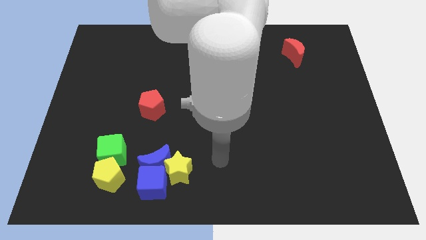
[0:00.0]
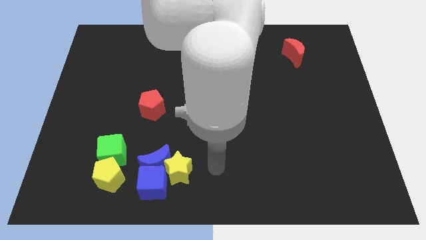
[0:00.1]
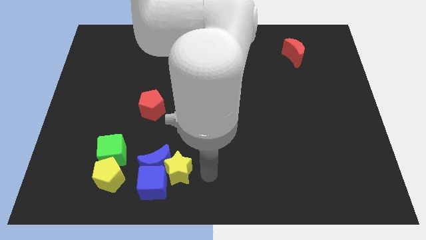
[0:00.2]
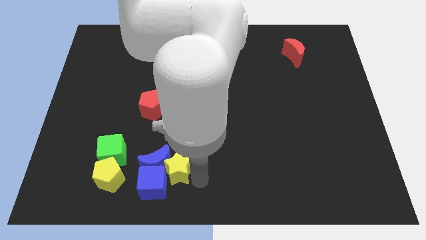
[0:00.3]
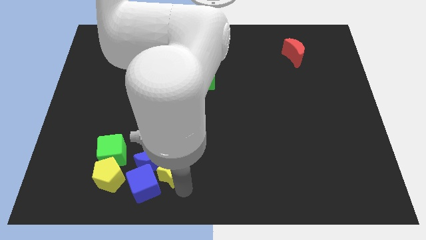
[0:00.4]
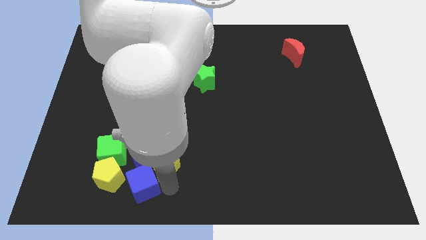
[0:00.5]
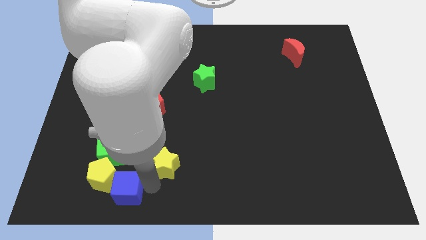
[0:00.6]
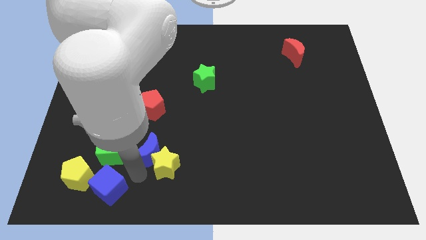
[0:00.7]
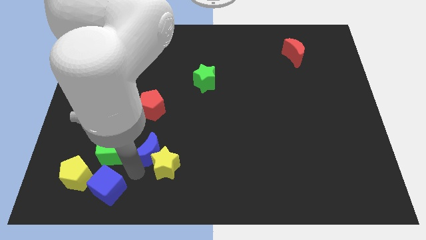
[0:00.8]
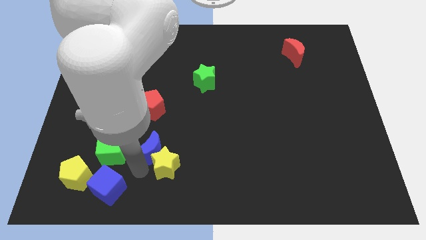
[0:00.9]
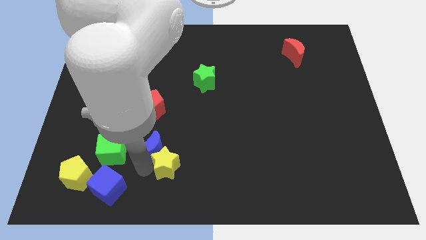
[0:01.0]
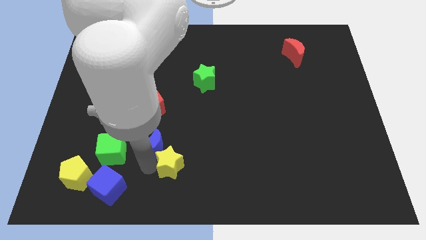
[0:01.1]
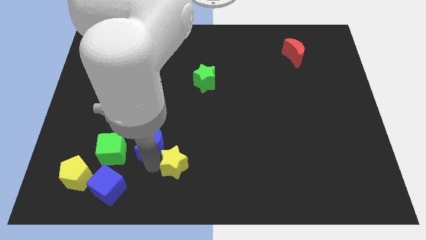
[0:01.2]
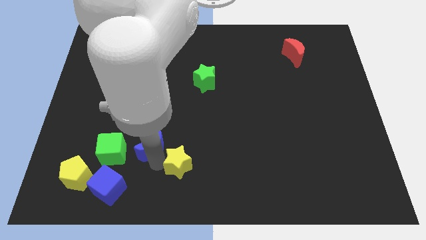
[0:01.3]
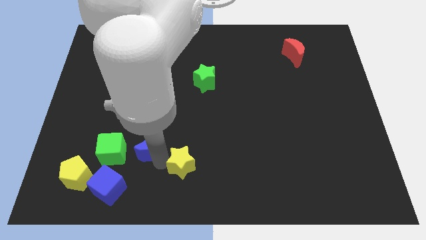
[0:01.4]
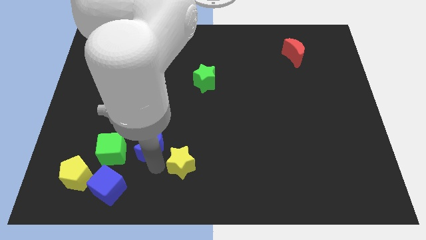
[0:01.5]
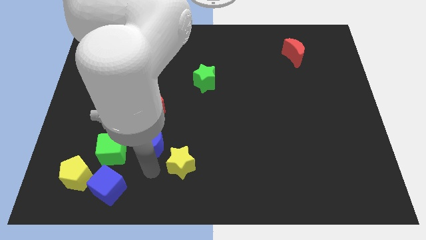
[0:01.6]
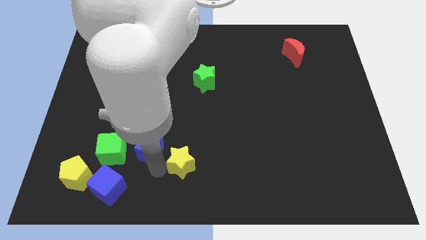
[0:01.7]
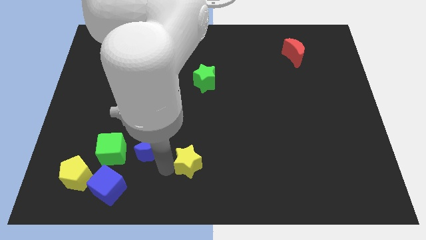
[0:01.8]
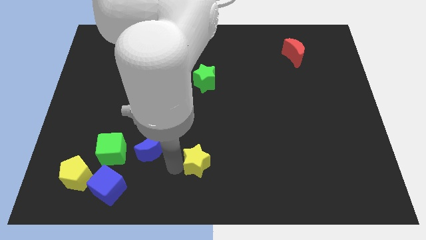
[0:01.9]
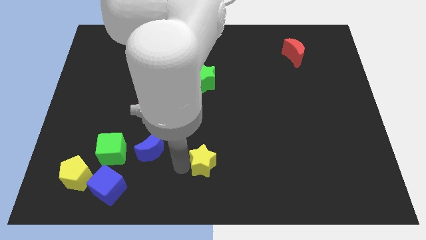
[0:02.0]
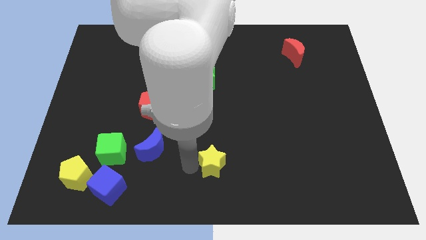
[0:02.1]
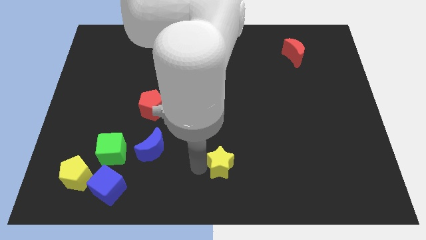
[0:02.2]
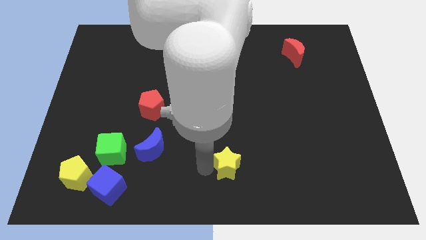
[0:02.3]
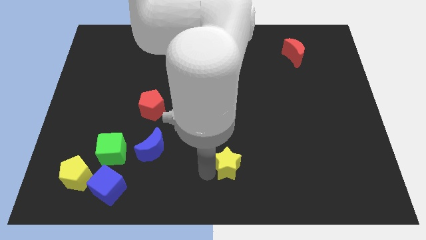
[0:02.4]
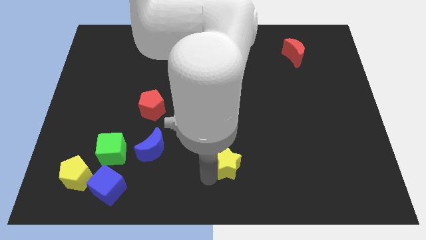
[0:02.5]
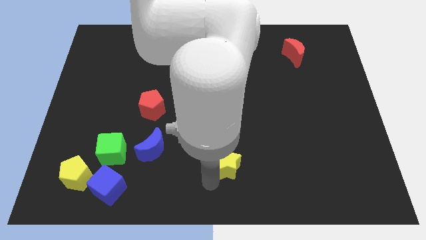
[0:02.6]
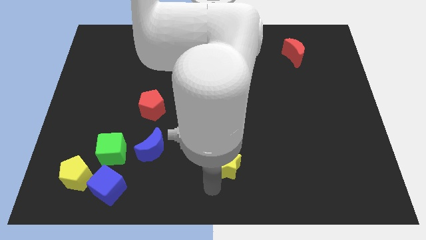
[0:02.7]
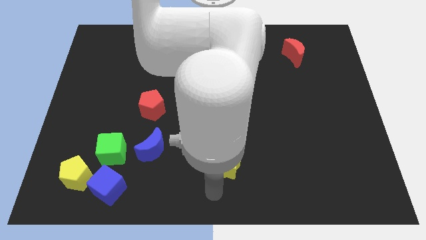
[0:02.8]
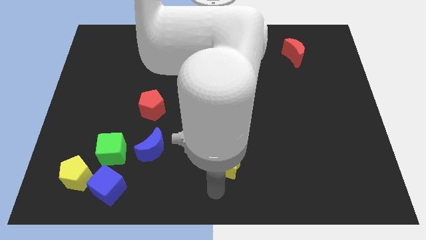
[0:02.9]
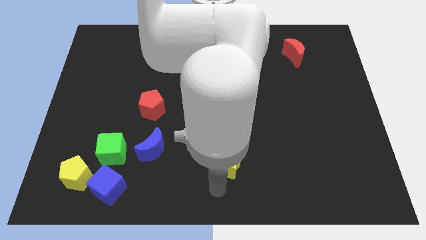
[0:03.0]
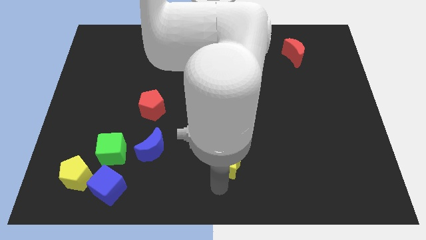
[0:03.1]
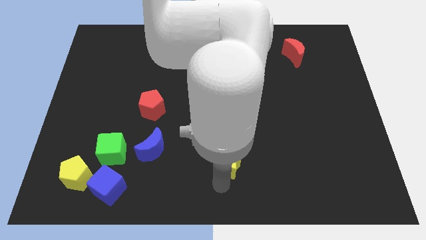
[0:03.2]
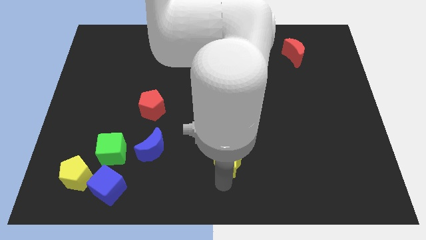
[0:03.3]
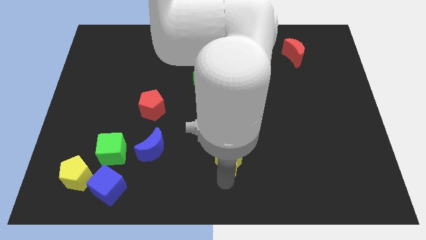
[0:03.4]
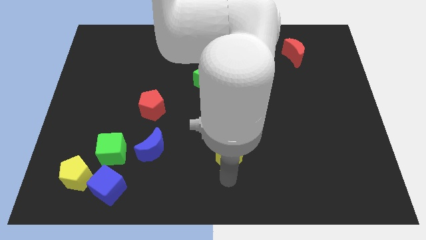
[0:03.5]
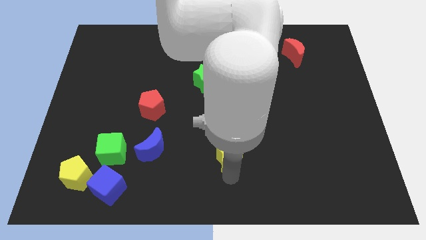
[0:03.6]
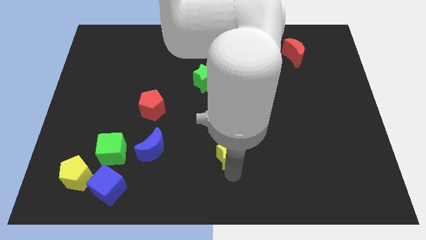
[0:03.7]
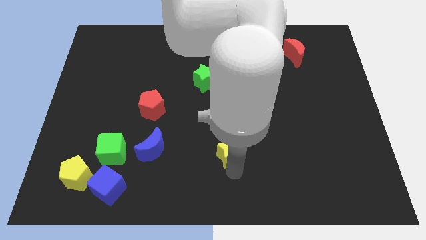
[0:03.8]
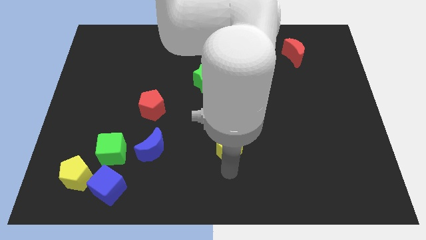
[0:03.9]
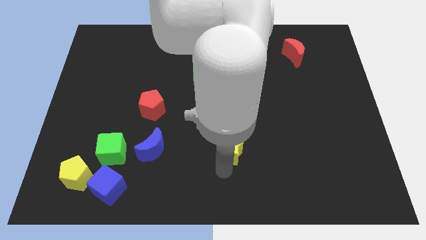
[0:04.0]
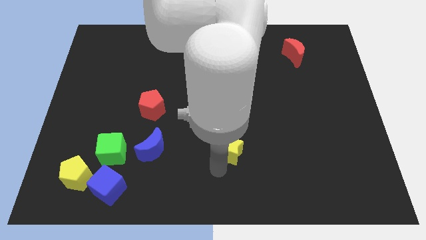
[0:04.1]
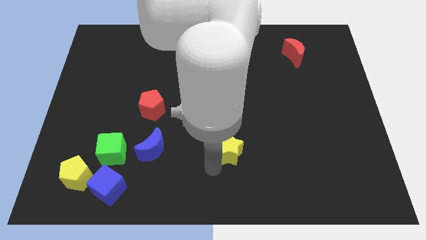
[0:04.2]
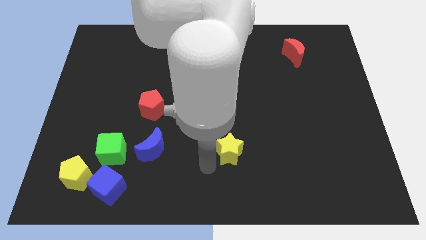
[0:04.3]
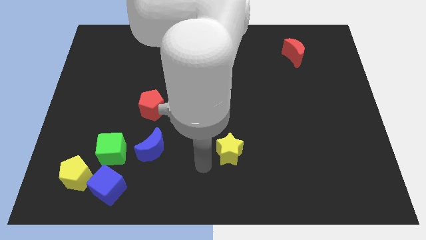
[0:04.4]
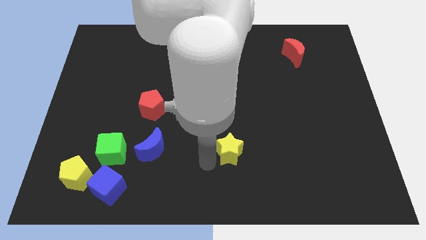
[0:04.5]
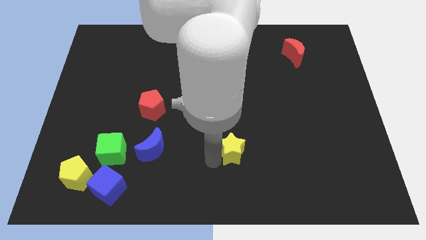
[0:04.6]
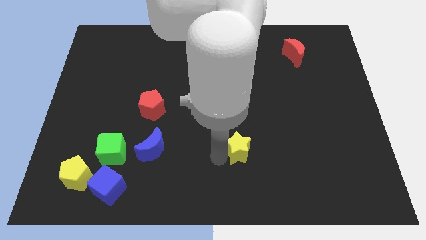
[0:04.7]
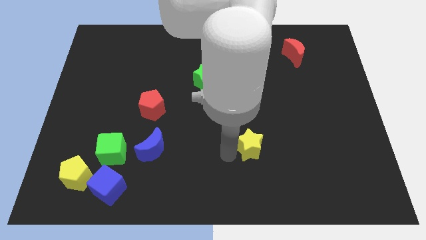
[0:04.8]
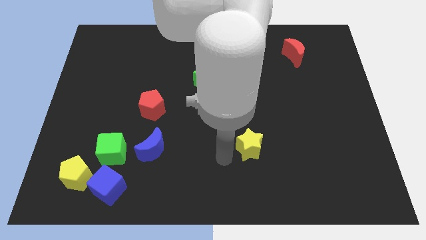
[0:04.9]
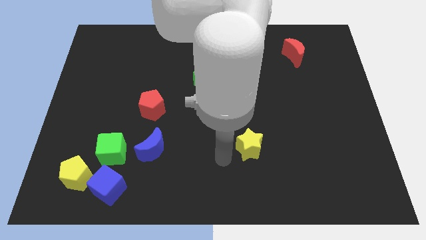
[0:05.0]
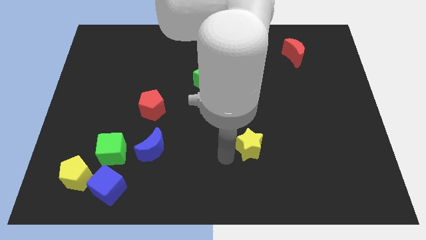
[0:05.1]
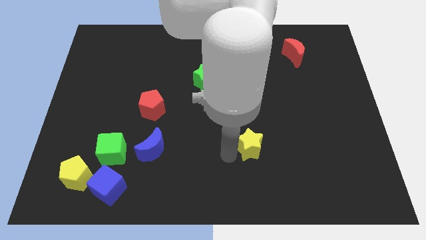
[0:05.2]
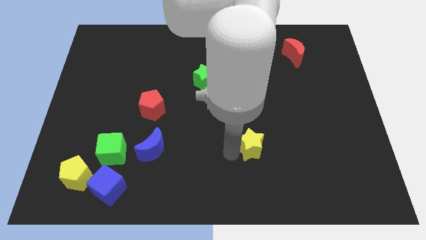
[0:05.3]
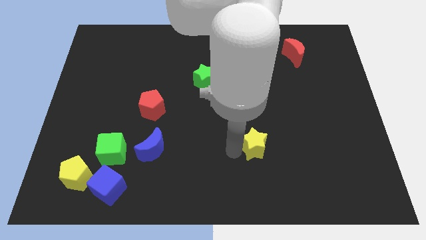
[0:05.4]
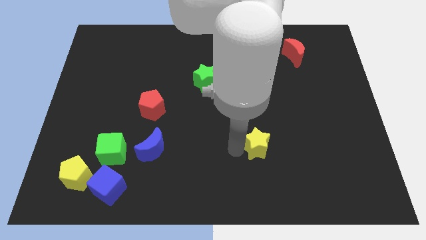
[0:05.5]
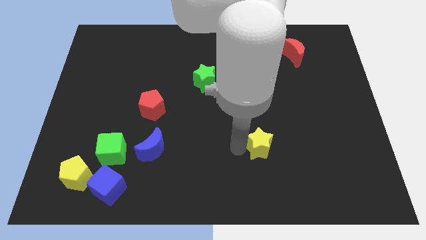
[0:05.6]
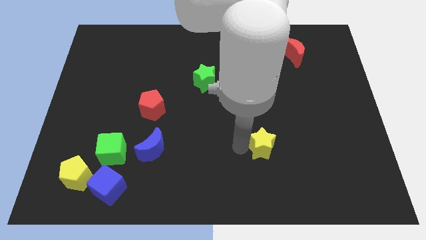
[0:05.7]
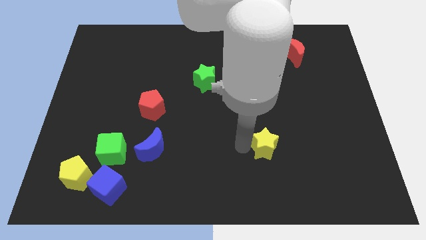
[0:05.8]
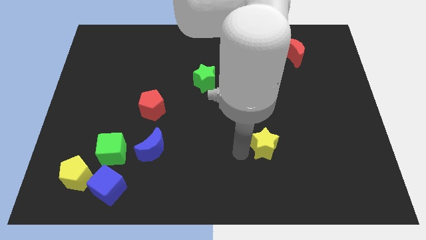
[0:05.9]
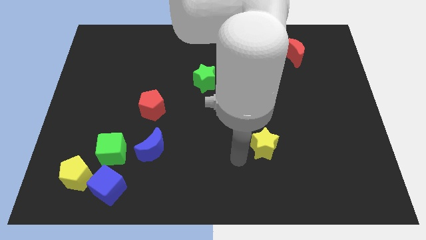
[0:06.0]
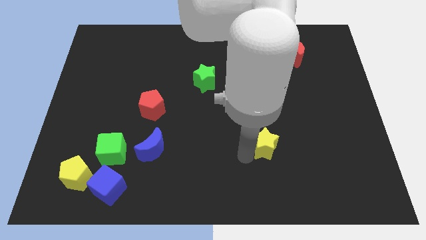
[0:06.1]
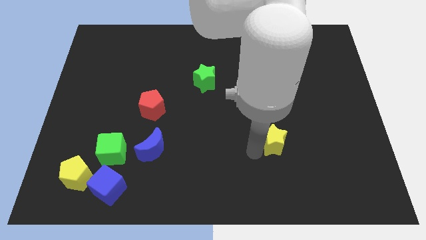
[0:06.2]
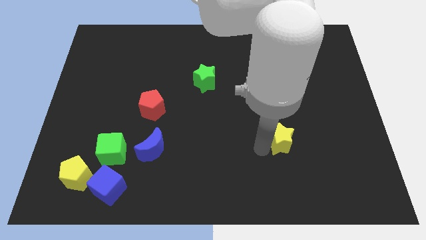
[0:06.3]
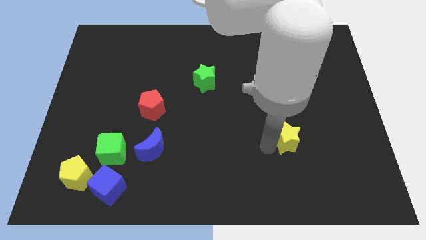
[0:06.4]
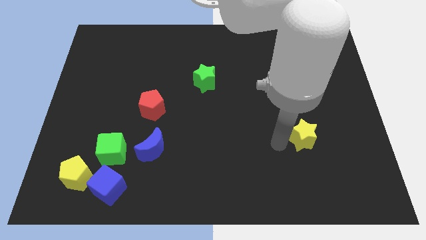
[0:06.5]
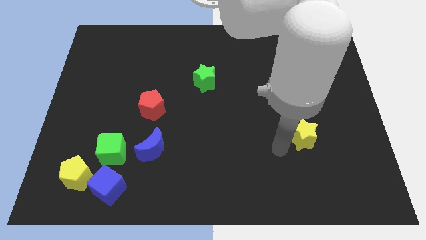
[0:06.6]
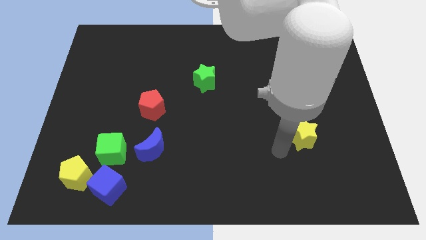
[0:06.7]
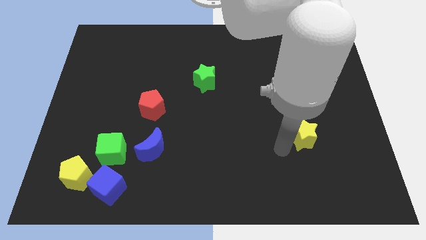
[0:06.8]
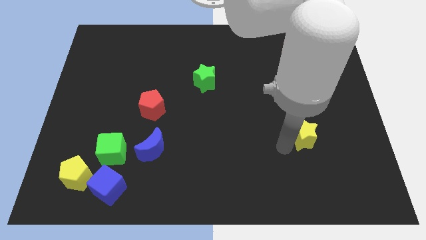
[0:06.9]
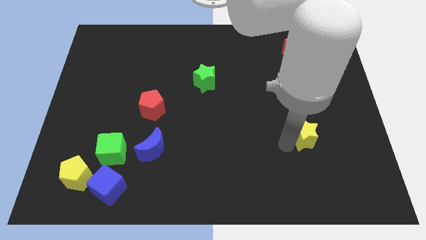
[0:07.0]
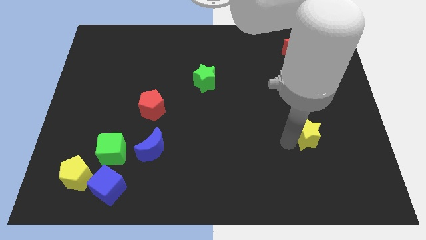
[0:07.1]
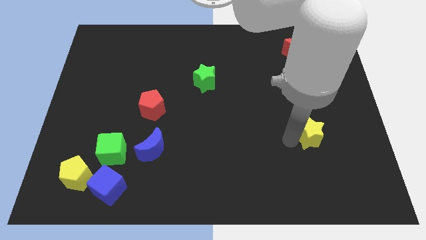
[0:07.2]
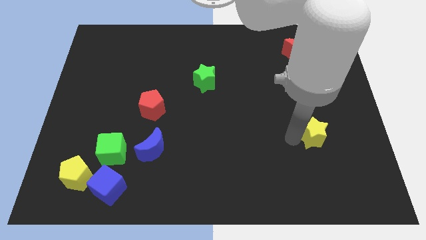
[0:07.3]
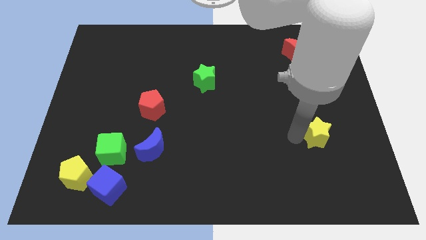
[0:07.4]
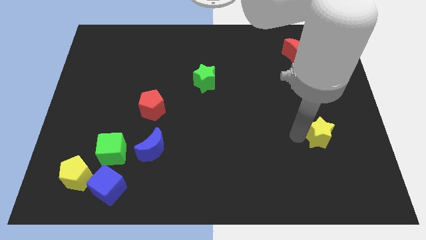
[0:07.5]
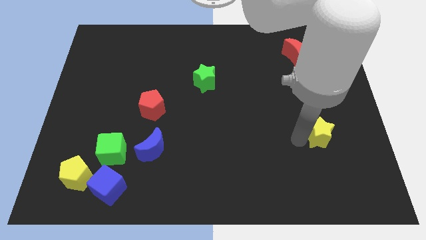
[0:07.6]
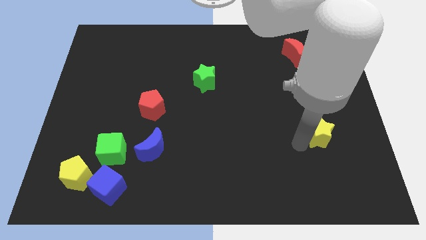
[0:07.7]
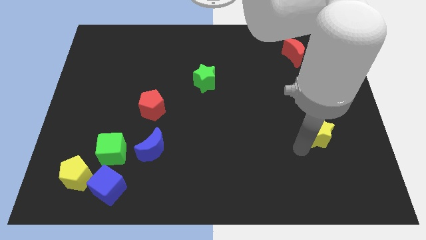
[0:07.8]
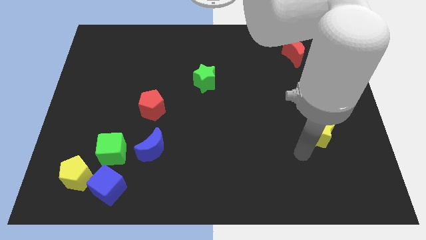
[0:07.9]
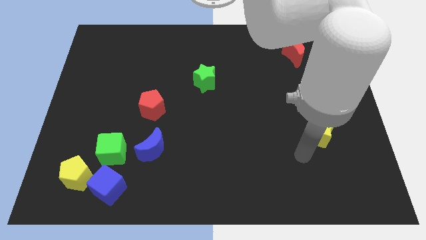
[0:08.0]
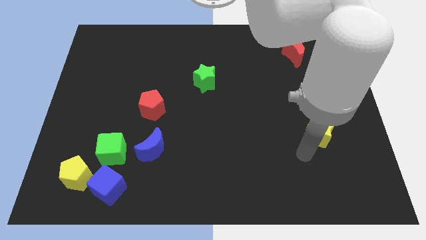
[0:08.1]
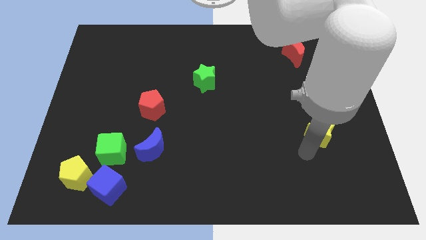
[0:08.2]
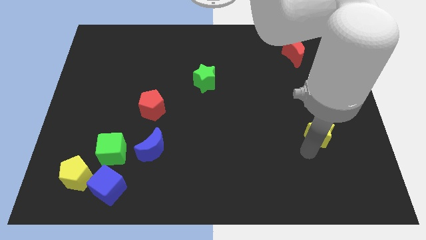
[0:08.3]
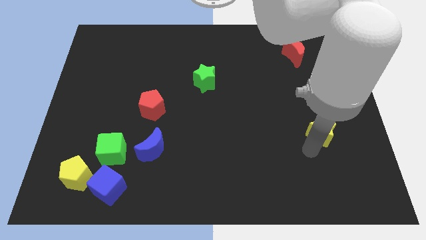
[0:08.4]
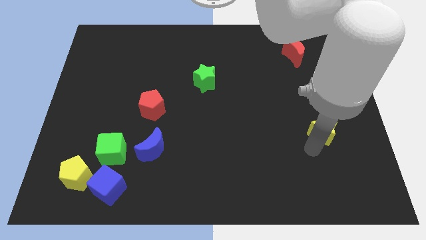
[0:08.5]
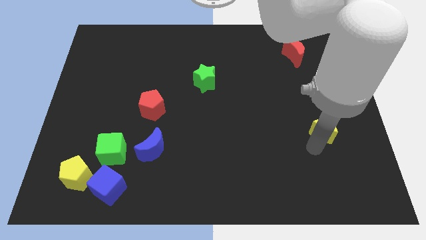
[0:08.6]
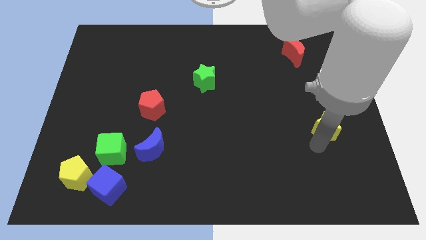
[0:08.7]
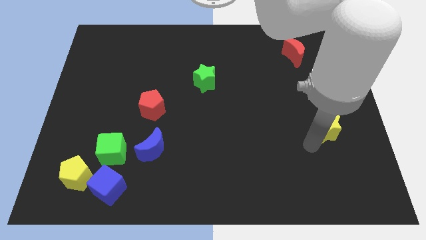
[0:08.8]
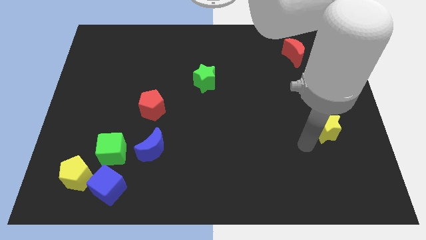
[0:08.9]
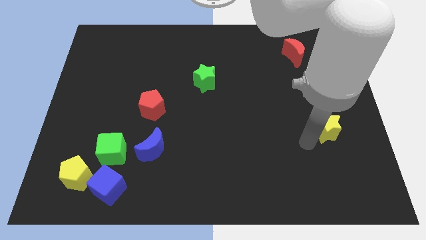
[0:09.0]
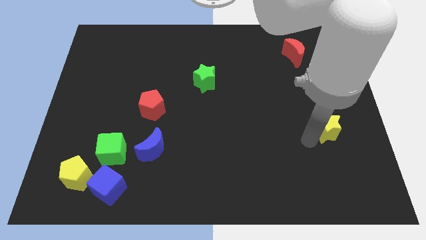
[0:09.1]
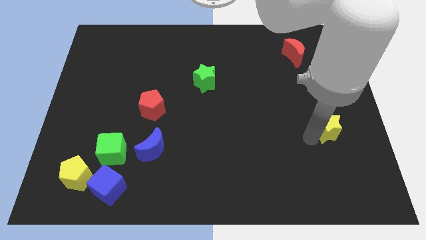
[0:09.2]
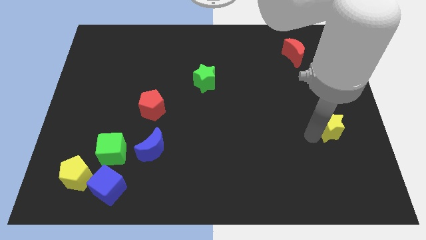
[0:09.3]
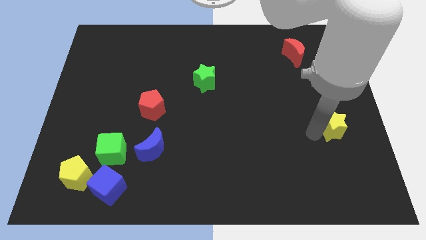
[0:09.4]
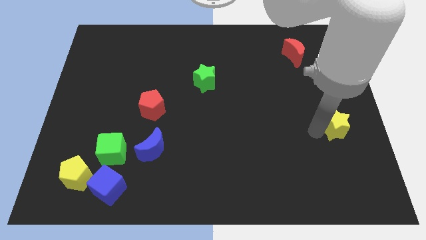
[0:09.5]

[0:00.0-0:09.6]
put the yellow star to the right side of the board
